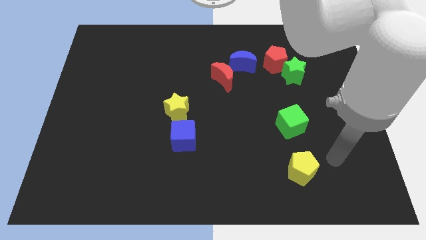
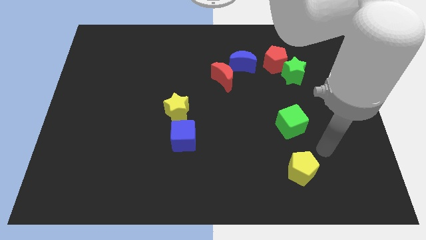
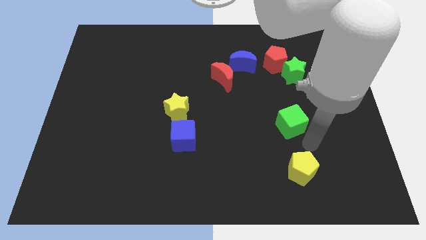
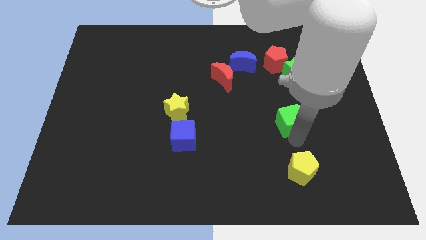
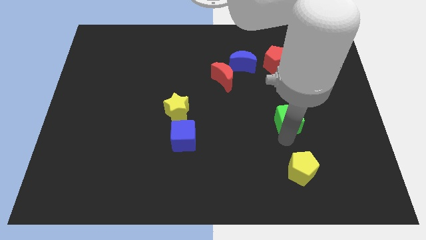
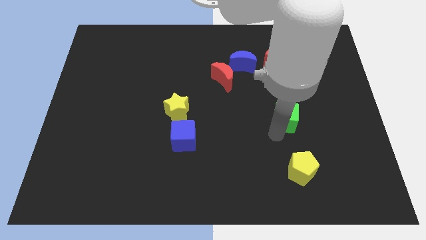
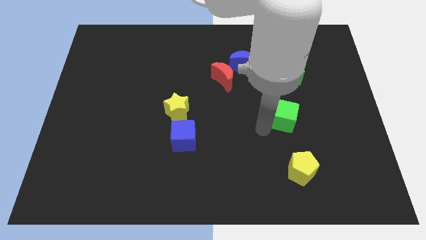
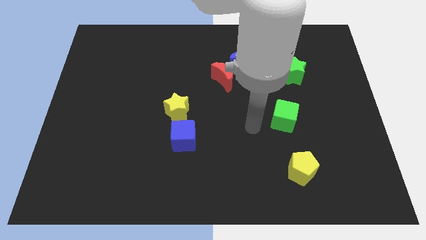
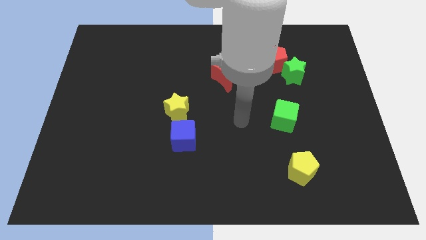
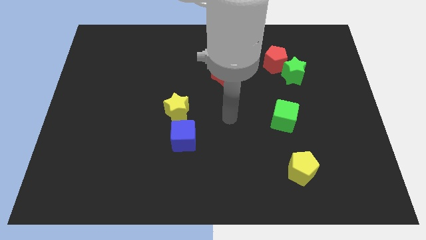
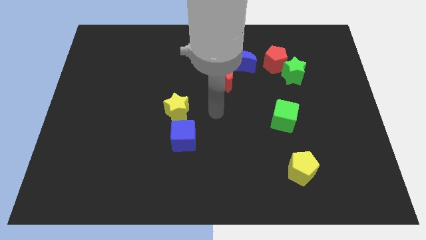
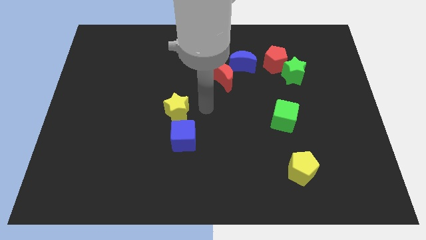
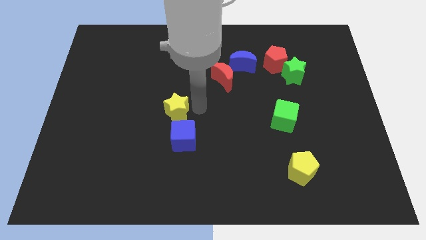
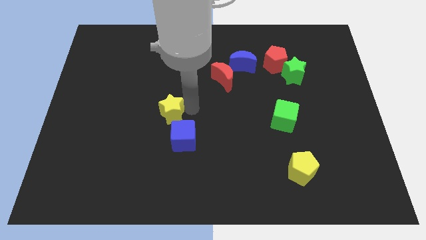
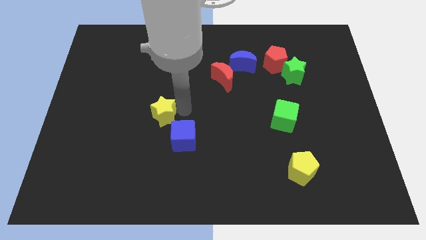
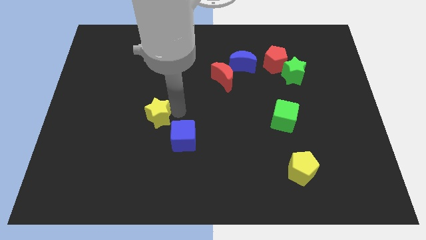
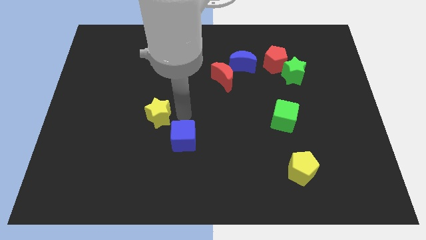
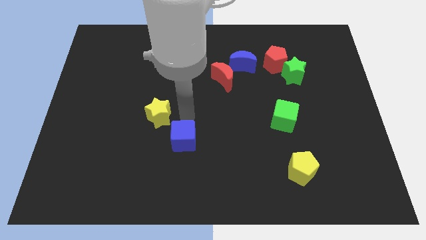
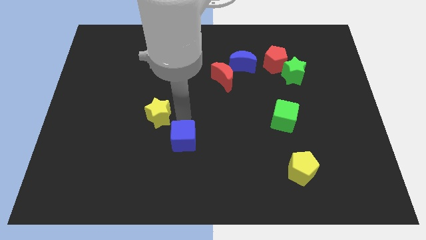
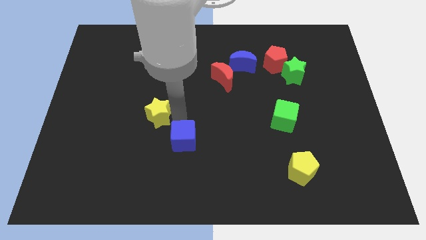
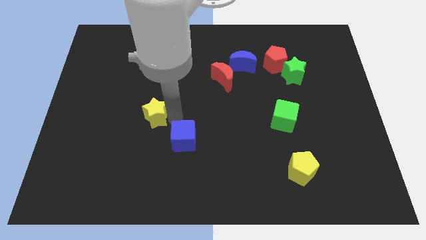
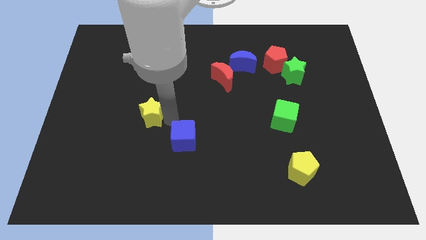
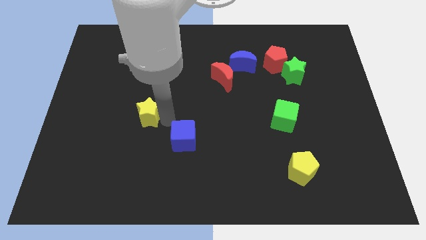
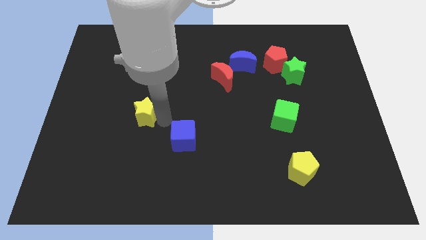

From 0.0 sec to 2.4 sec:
move the yellow star a bit to the left

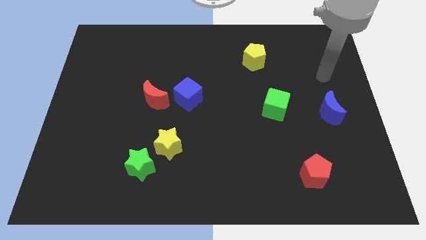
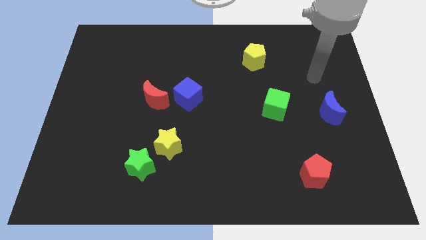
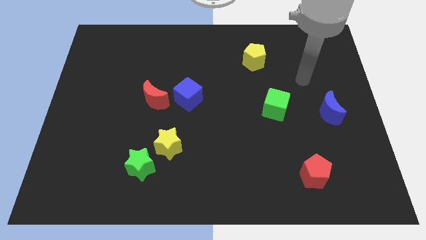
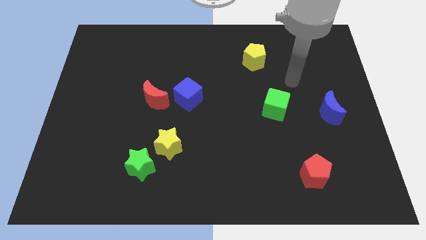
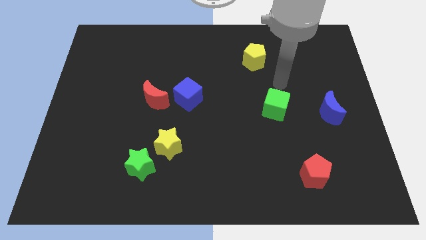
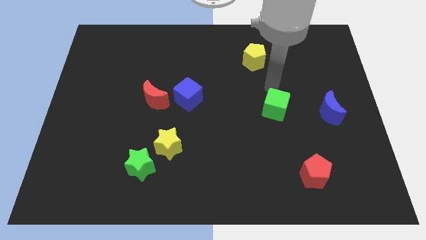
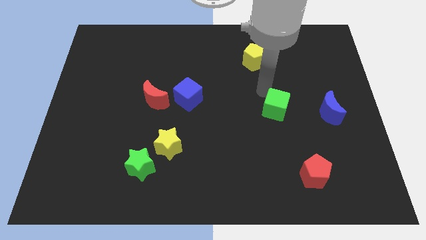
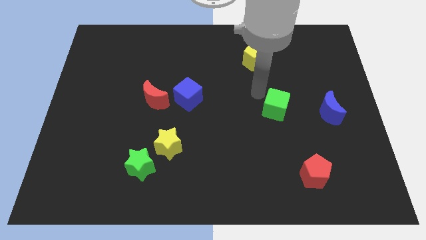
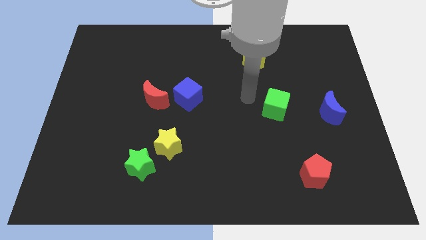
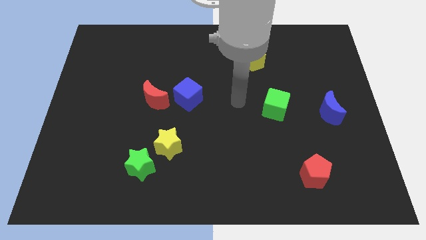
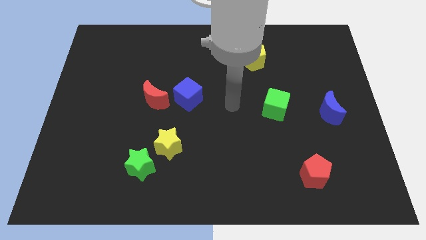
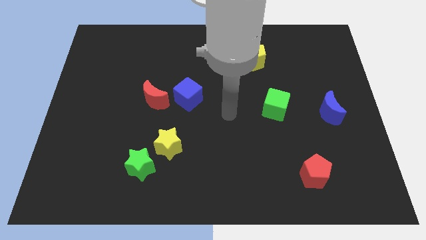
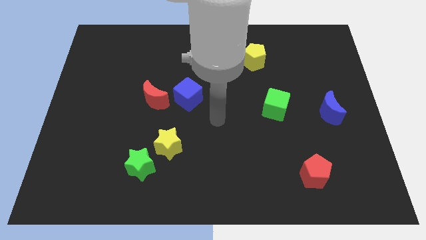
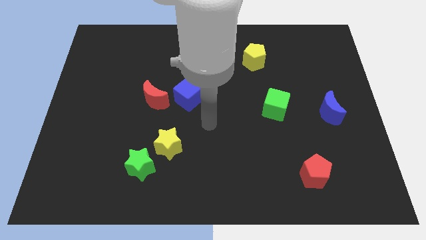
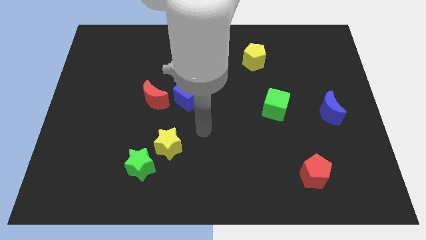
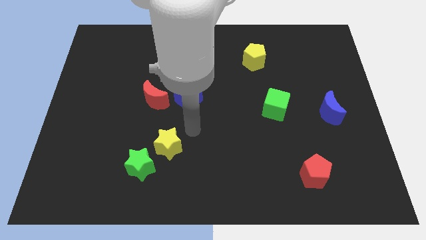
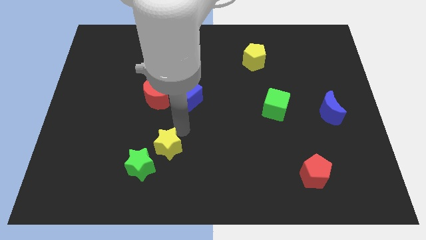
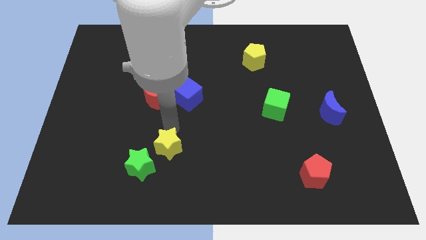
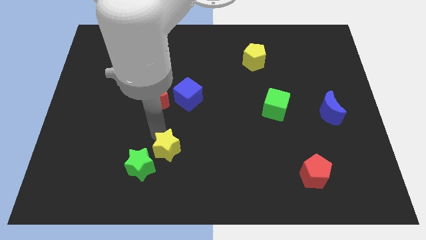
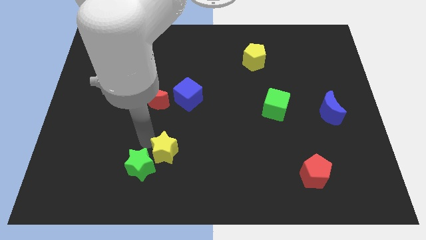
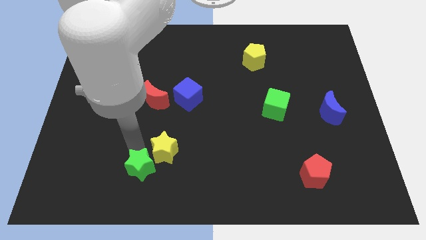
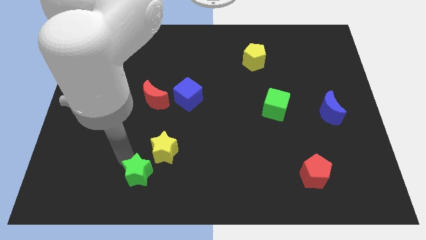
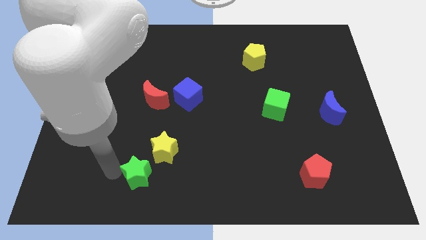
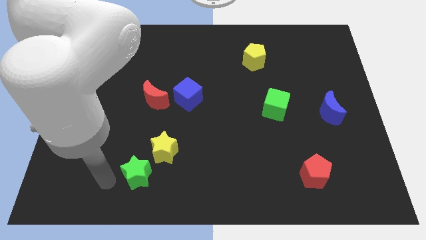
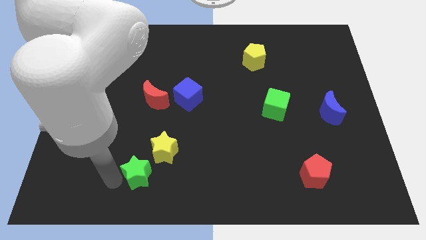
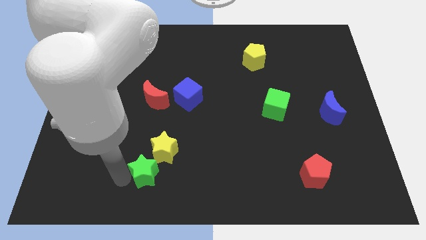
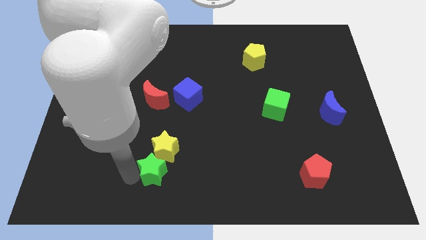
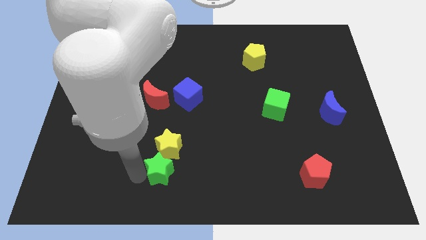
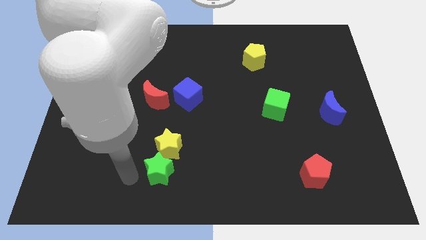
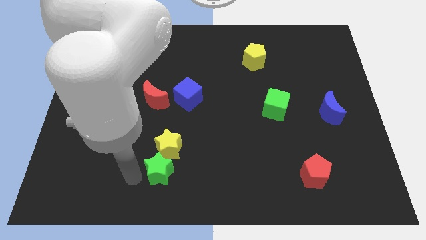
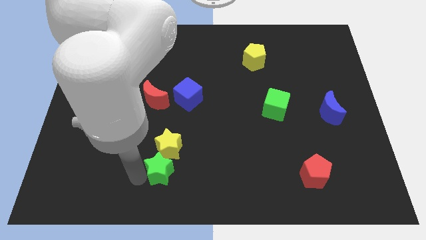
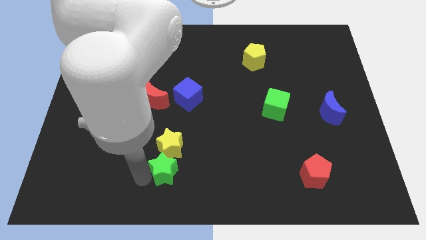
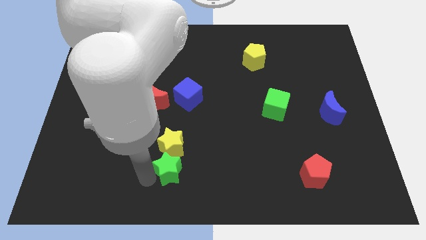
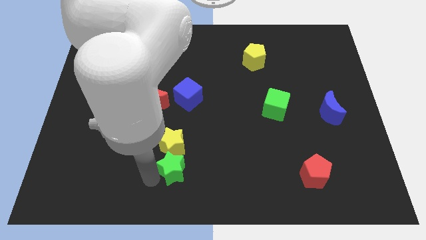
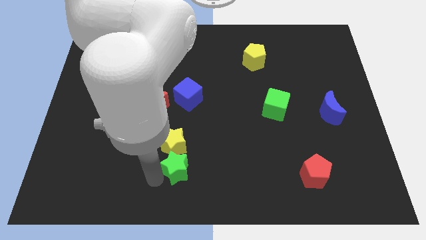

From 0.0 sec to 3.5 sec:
push the green star right a little bit

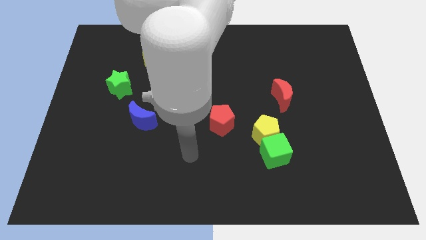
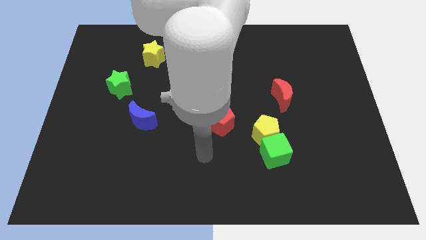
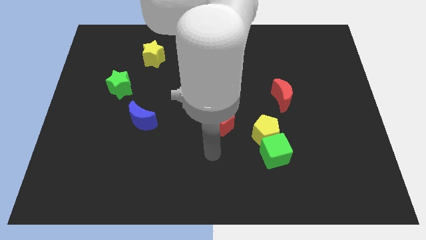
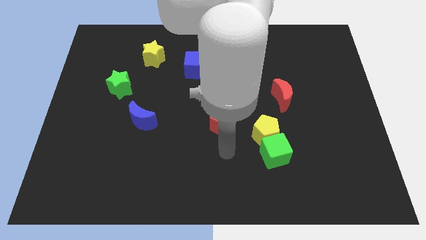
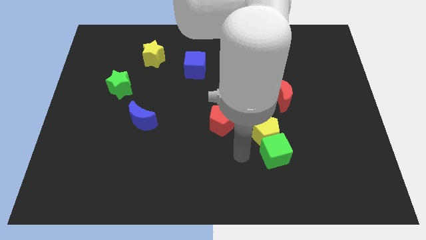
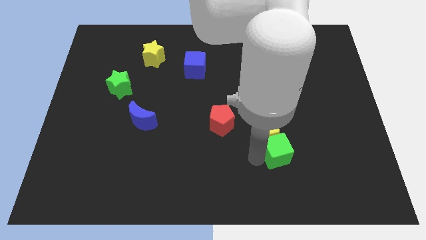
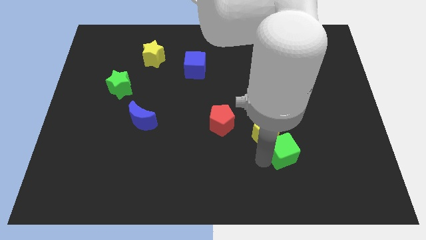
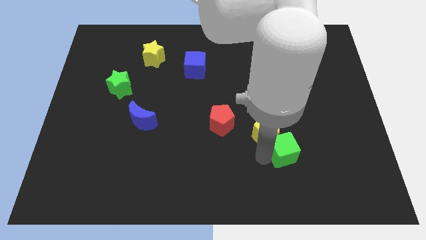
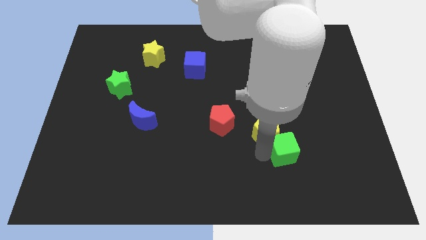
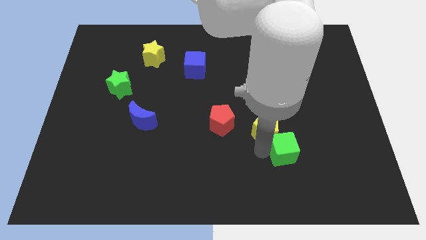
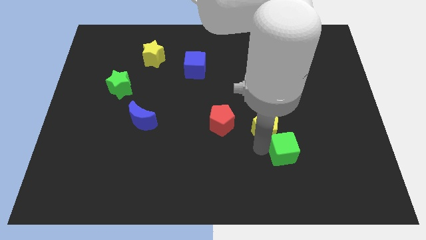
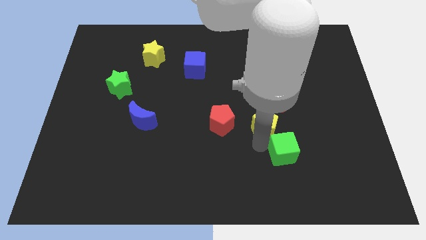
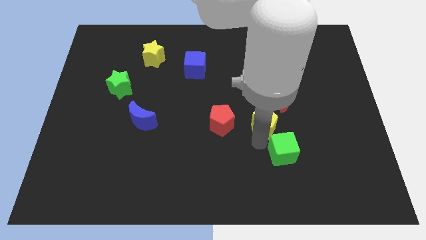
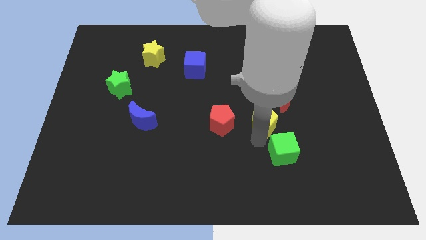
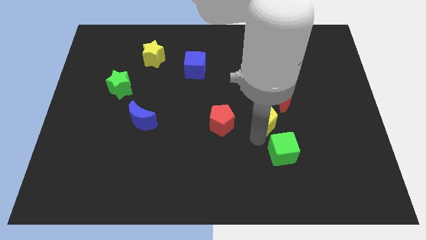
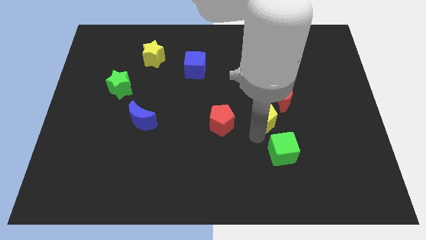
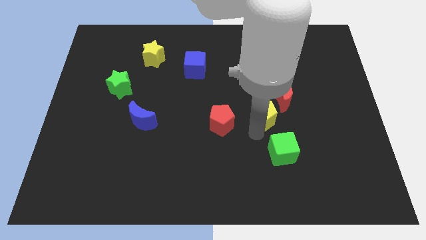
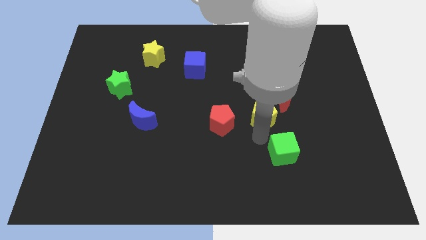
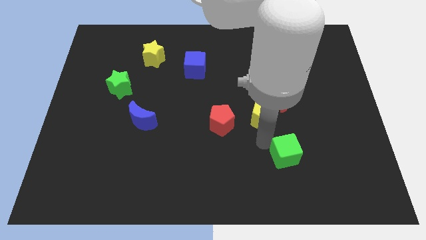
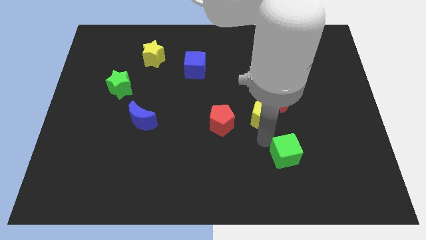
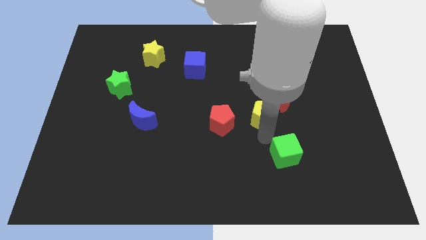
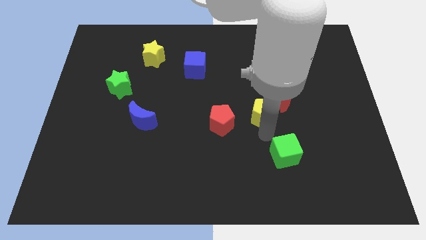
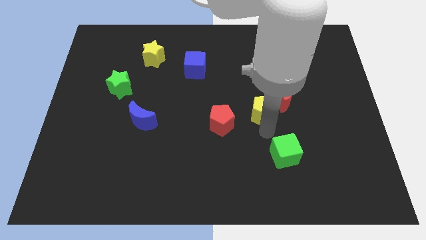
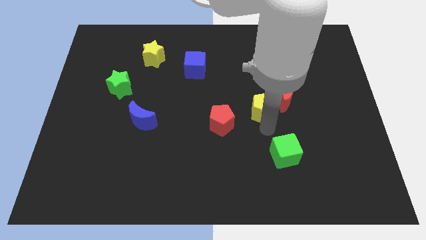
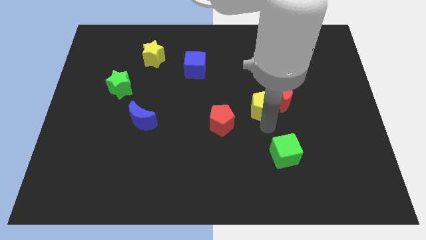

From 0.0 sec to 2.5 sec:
slide the yellow pentagon upwards a little
